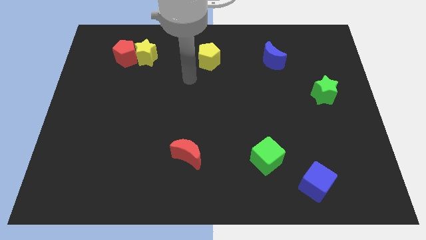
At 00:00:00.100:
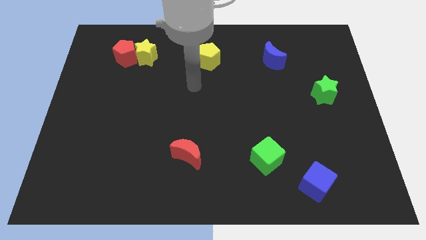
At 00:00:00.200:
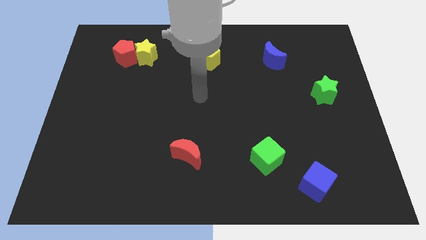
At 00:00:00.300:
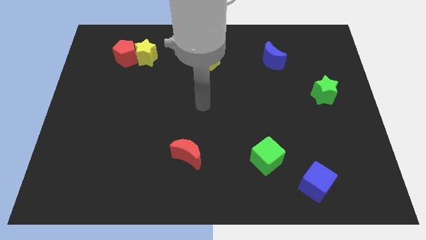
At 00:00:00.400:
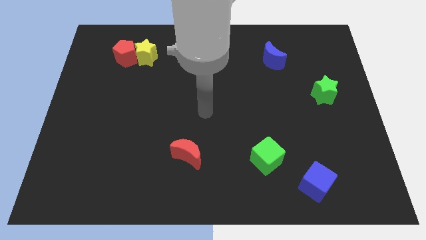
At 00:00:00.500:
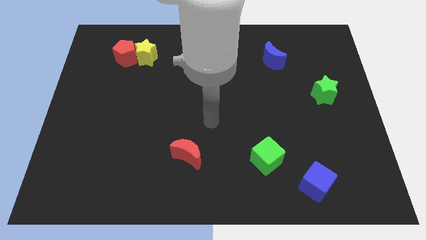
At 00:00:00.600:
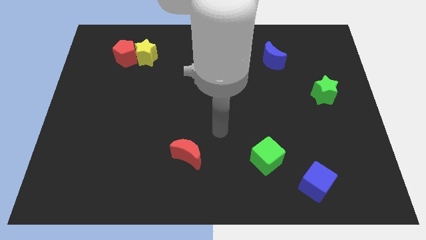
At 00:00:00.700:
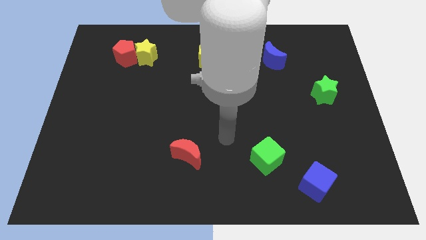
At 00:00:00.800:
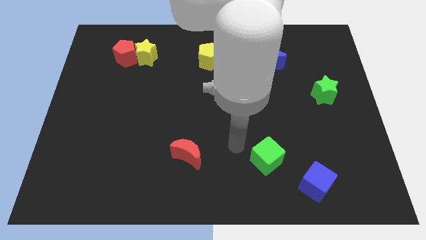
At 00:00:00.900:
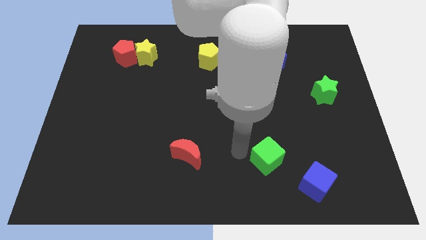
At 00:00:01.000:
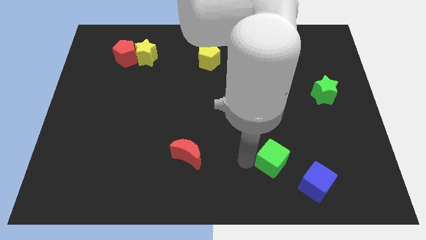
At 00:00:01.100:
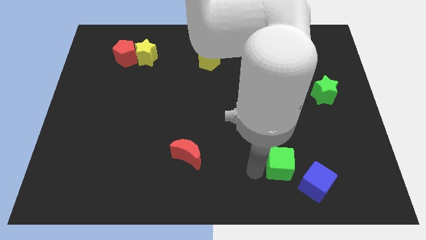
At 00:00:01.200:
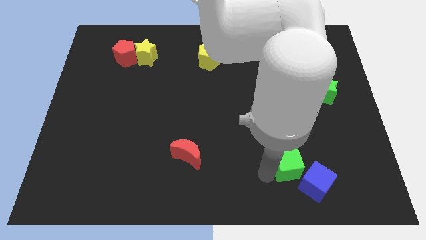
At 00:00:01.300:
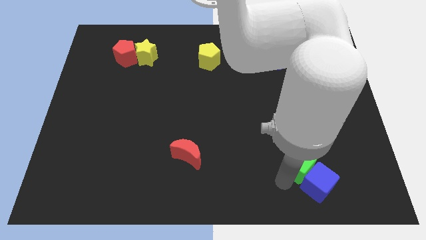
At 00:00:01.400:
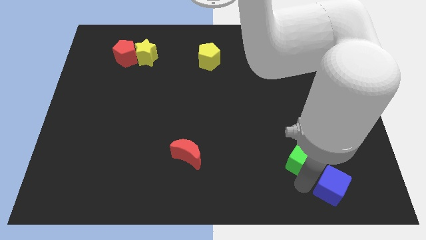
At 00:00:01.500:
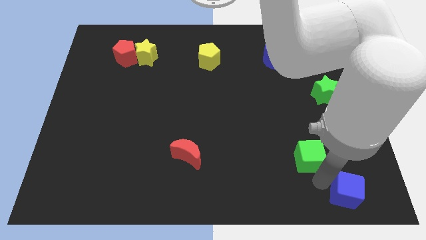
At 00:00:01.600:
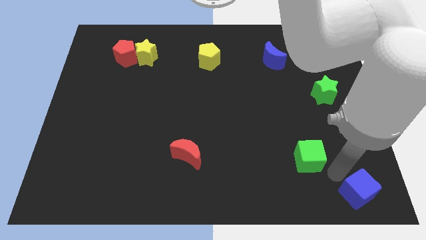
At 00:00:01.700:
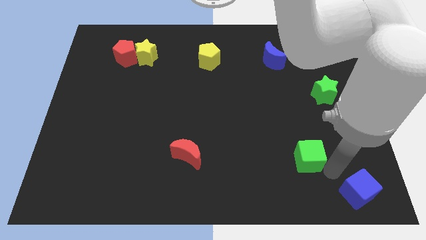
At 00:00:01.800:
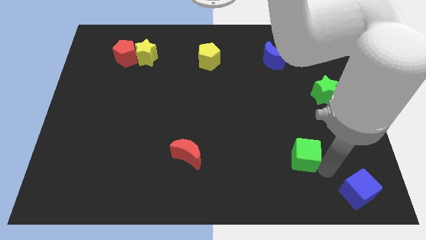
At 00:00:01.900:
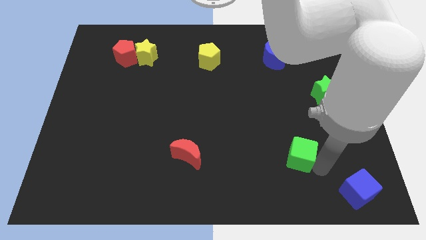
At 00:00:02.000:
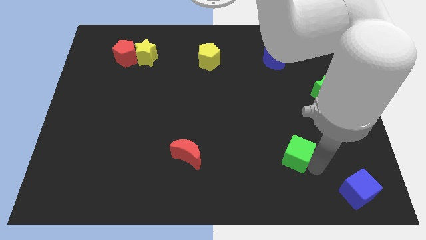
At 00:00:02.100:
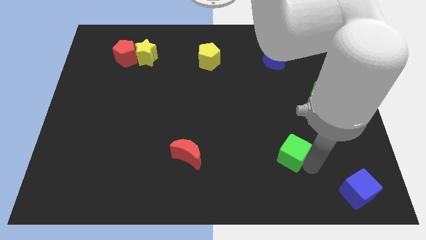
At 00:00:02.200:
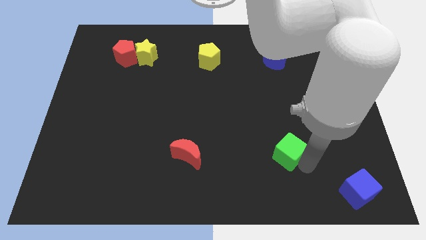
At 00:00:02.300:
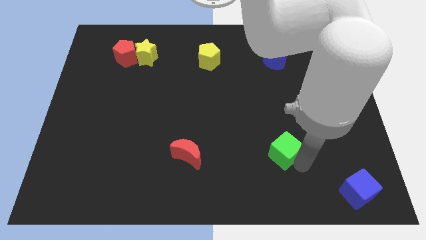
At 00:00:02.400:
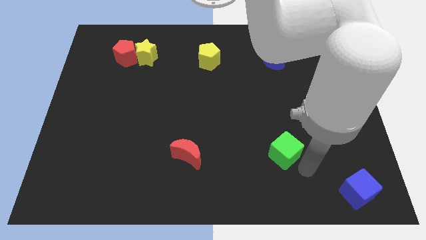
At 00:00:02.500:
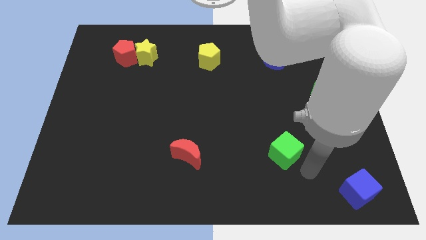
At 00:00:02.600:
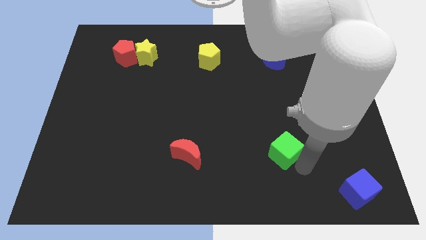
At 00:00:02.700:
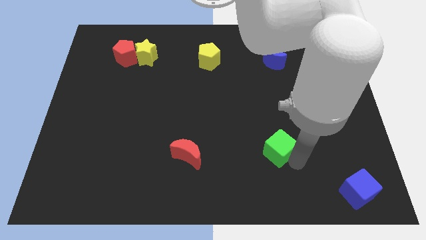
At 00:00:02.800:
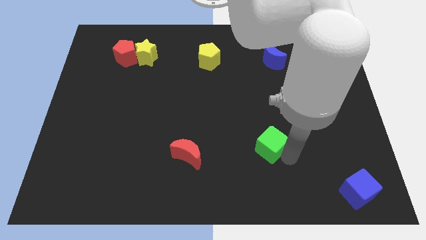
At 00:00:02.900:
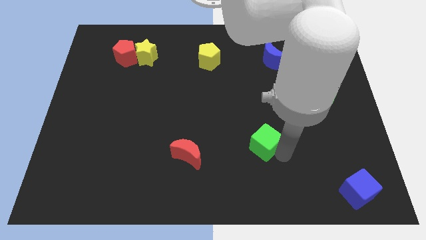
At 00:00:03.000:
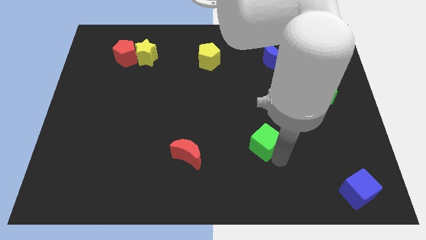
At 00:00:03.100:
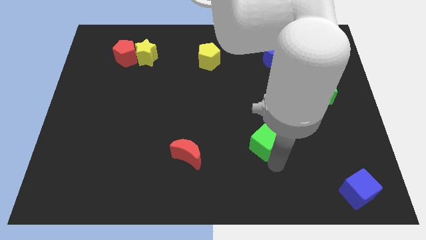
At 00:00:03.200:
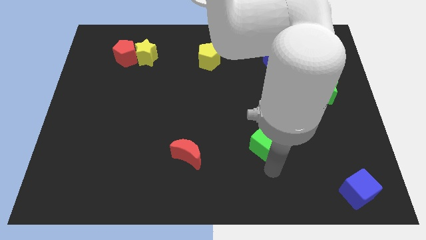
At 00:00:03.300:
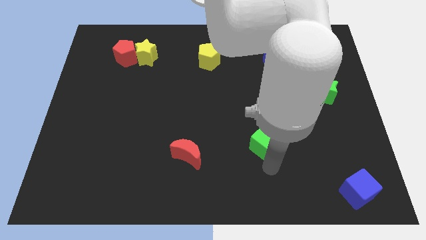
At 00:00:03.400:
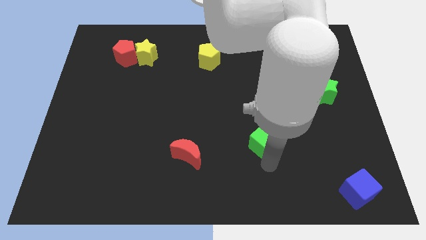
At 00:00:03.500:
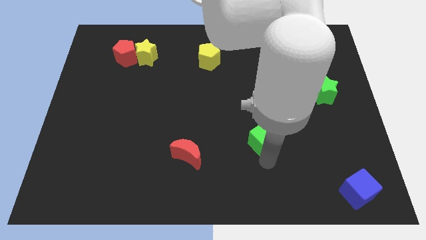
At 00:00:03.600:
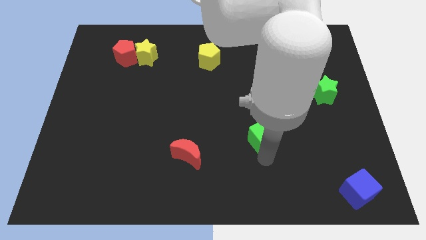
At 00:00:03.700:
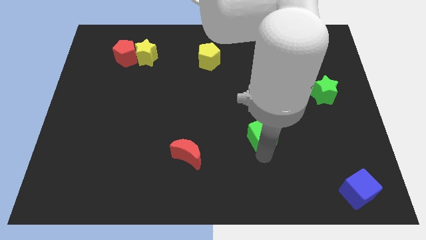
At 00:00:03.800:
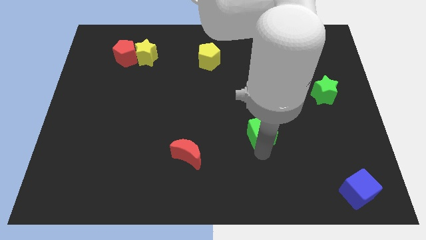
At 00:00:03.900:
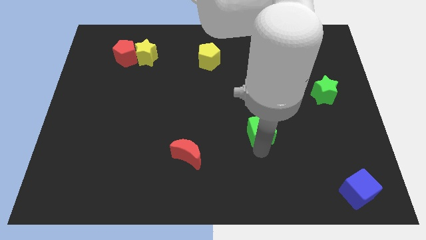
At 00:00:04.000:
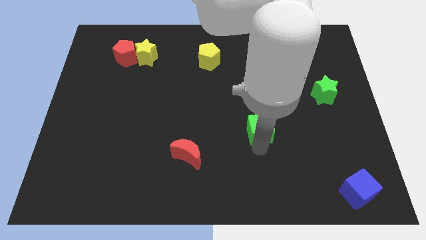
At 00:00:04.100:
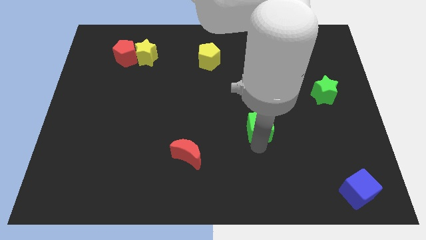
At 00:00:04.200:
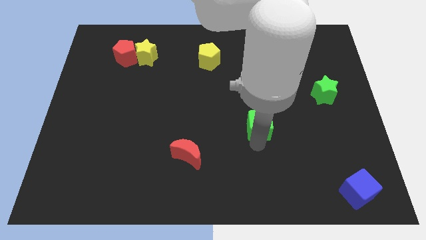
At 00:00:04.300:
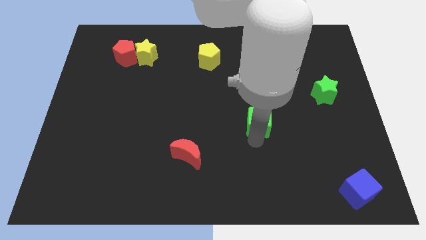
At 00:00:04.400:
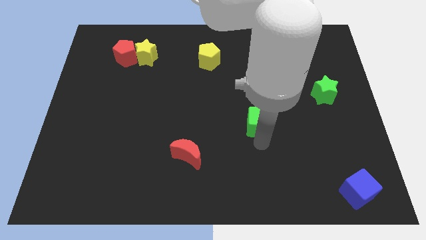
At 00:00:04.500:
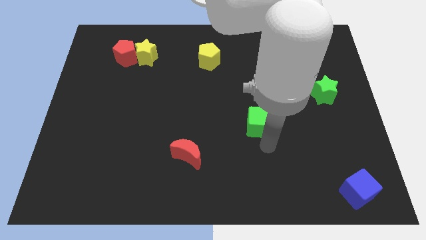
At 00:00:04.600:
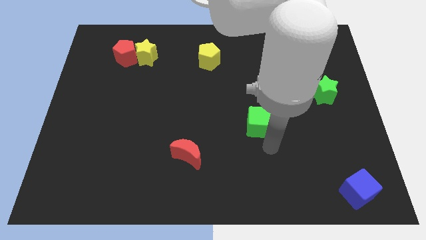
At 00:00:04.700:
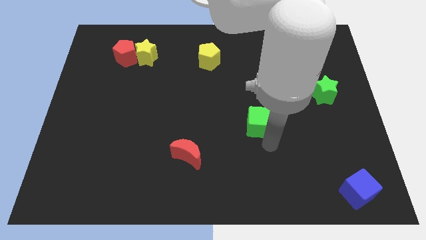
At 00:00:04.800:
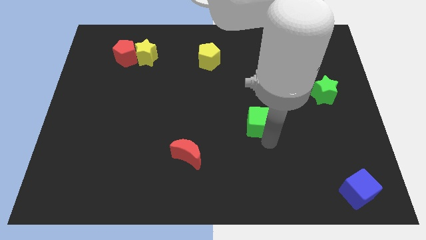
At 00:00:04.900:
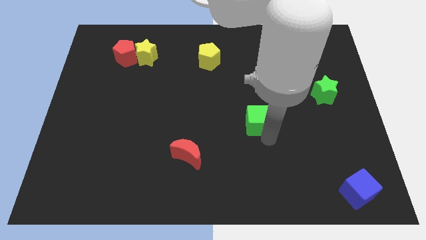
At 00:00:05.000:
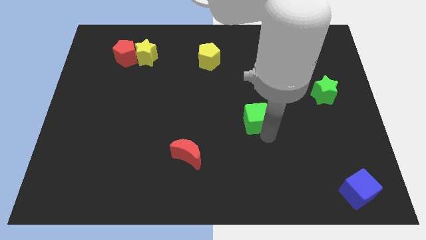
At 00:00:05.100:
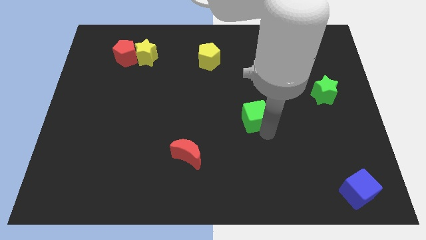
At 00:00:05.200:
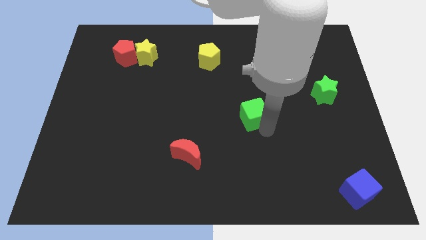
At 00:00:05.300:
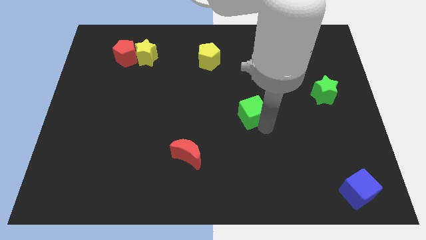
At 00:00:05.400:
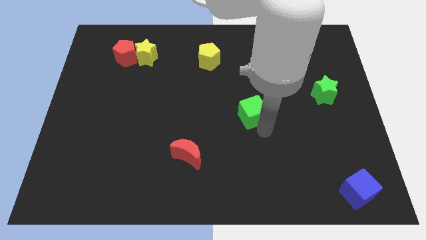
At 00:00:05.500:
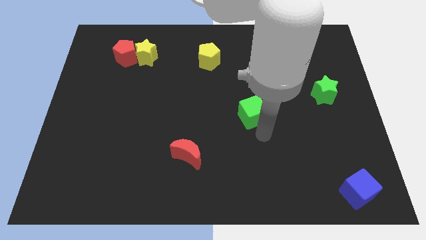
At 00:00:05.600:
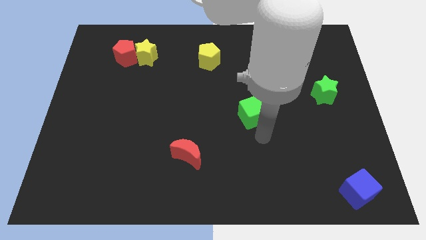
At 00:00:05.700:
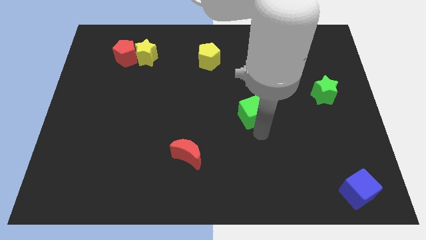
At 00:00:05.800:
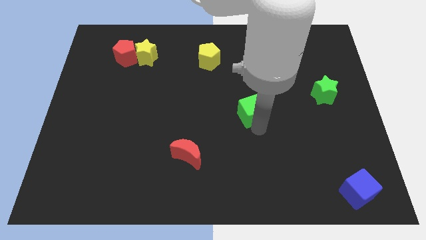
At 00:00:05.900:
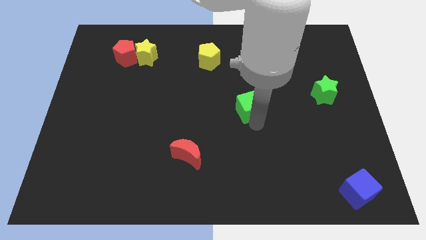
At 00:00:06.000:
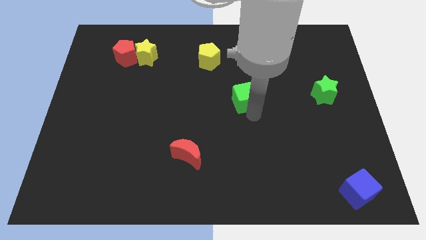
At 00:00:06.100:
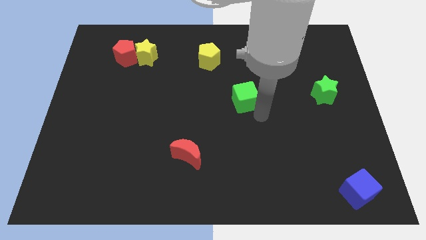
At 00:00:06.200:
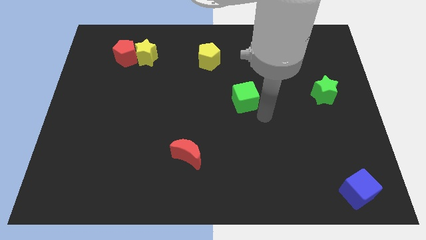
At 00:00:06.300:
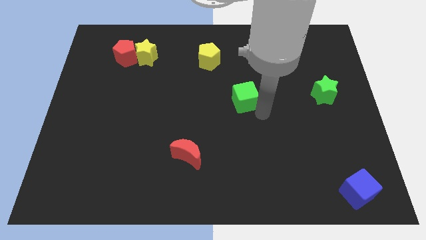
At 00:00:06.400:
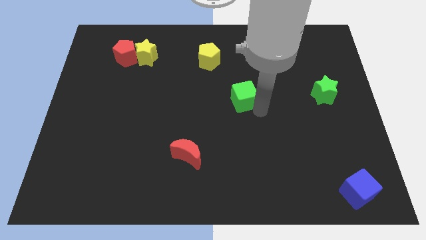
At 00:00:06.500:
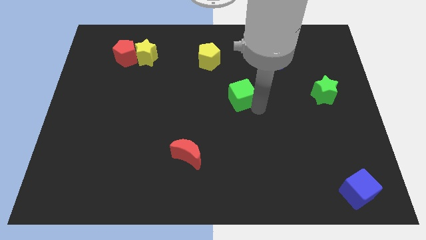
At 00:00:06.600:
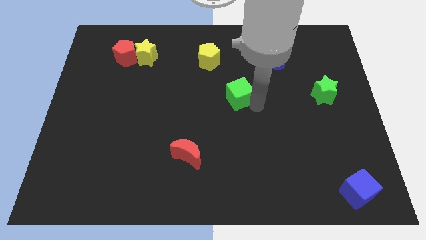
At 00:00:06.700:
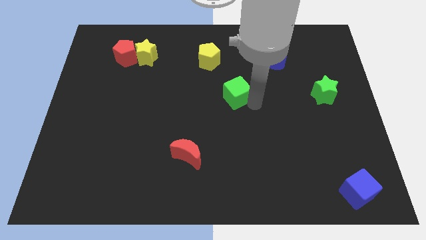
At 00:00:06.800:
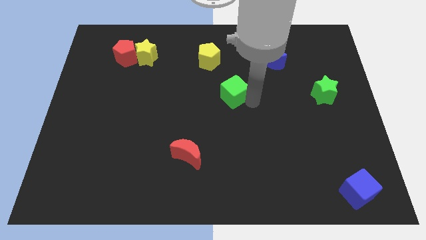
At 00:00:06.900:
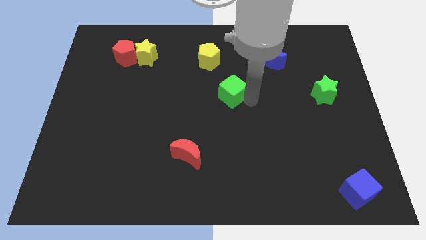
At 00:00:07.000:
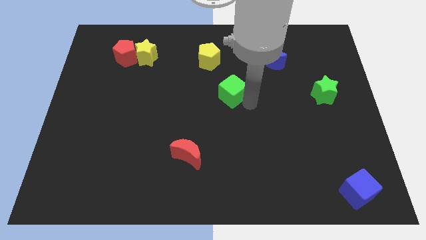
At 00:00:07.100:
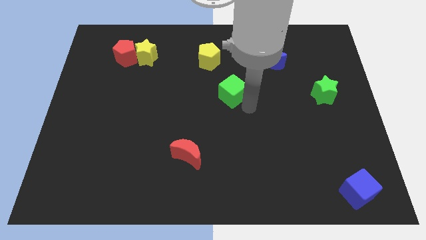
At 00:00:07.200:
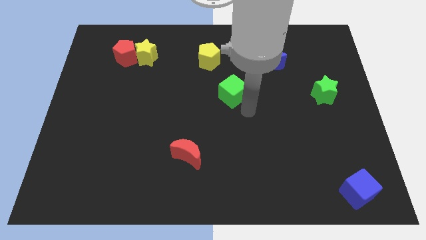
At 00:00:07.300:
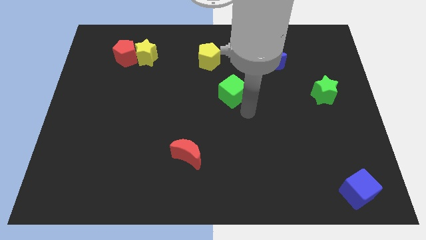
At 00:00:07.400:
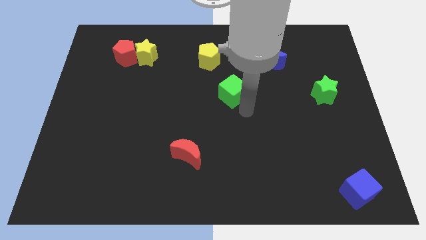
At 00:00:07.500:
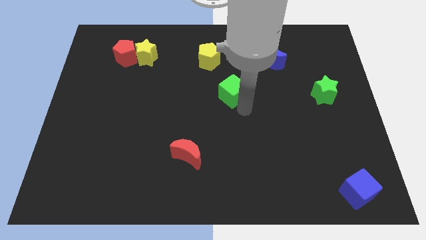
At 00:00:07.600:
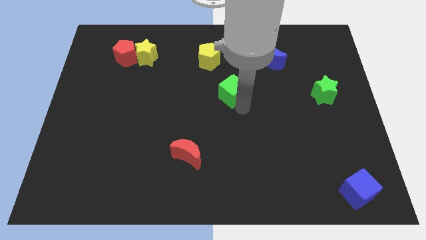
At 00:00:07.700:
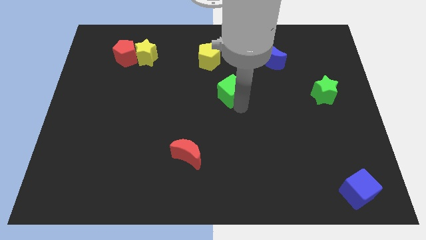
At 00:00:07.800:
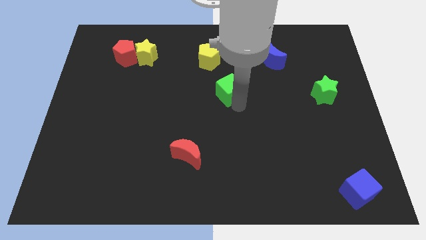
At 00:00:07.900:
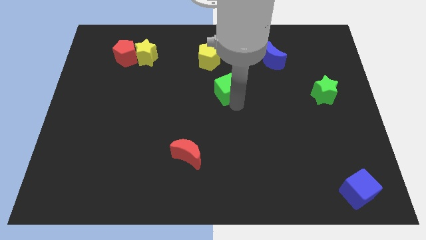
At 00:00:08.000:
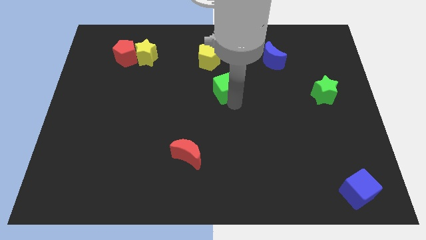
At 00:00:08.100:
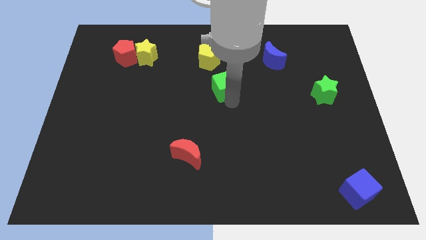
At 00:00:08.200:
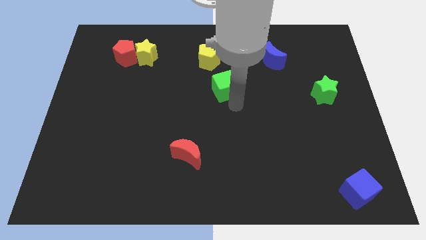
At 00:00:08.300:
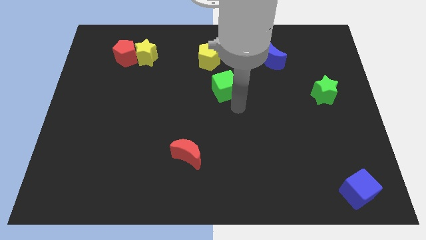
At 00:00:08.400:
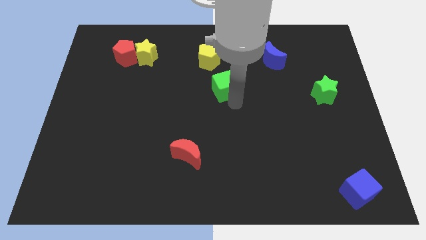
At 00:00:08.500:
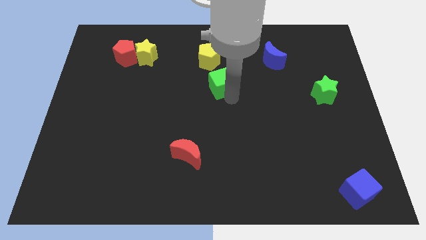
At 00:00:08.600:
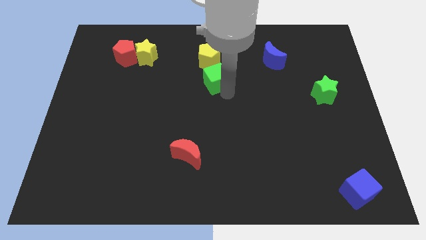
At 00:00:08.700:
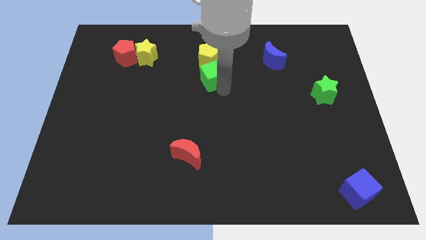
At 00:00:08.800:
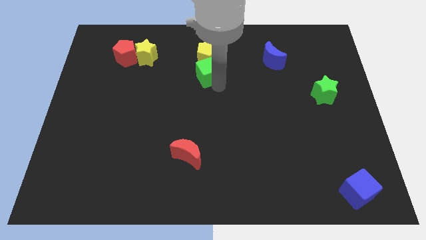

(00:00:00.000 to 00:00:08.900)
put the green cube close to the yellow pentagon
